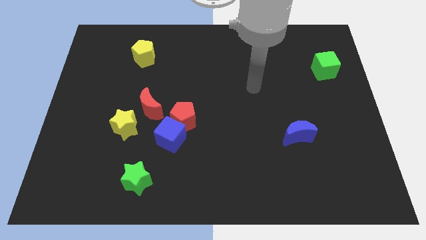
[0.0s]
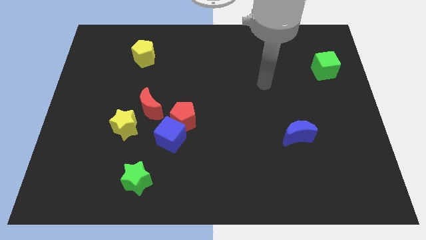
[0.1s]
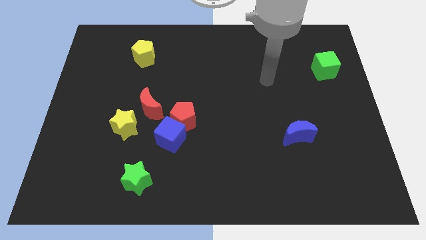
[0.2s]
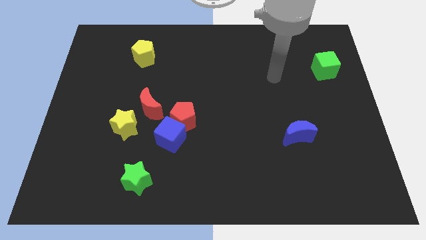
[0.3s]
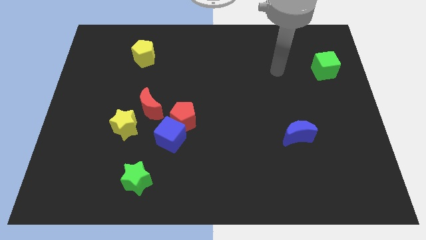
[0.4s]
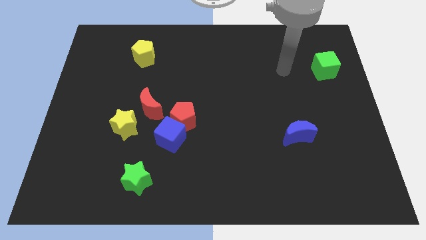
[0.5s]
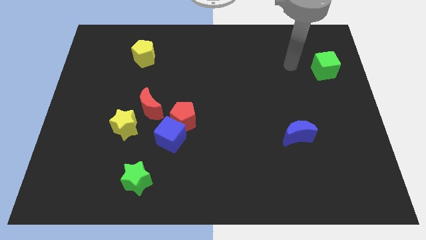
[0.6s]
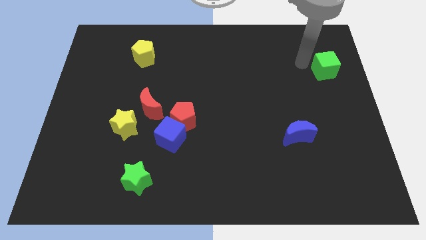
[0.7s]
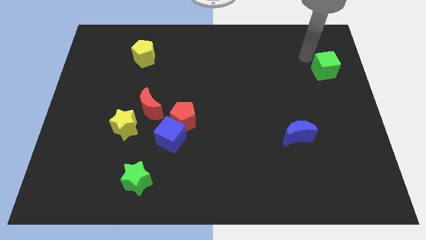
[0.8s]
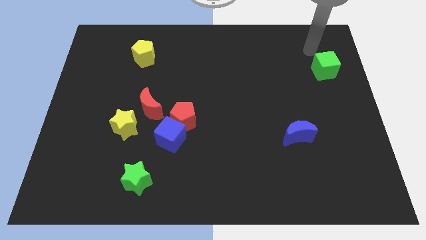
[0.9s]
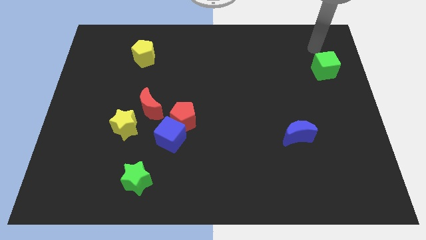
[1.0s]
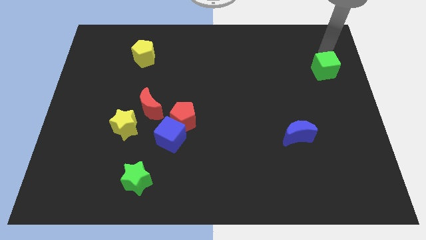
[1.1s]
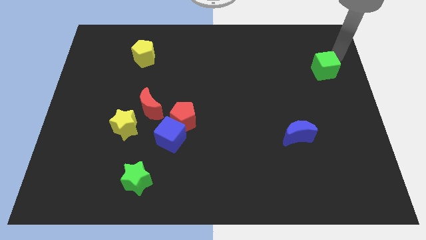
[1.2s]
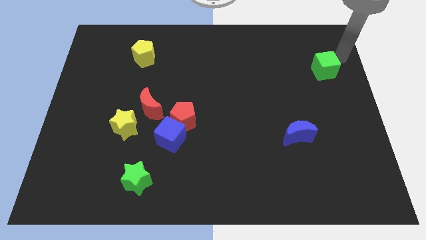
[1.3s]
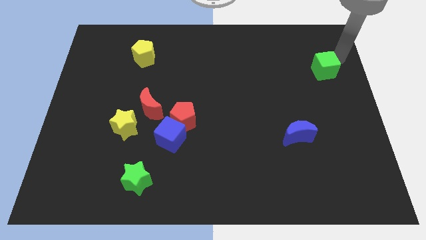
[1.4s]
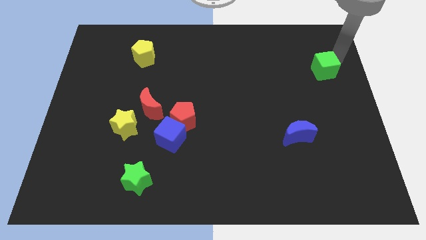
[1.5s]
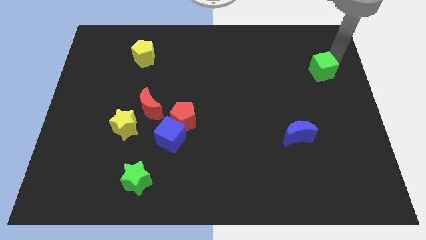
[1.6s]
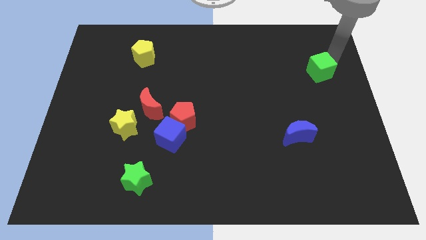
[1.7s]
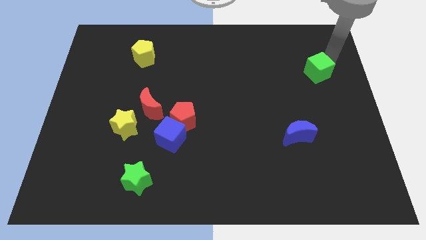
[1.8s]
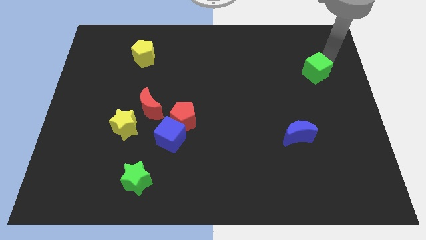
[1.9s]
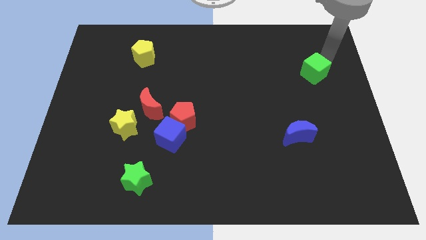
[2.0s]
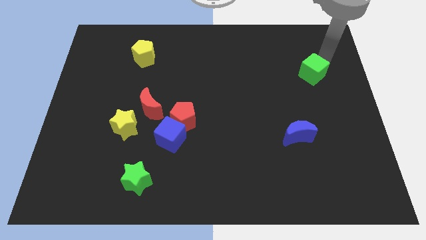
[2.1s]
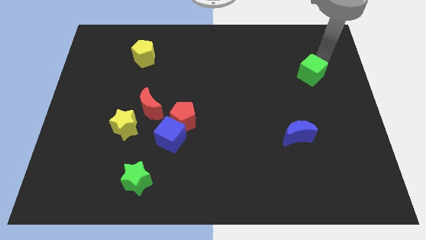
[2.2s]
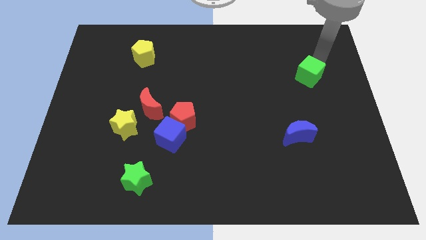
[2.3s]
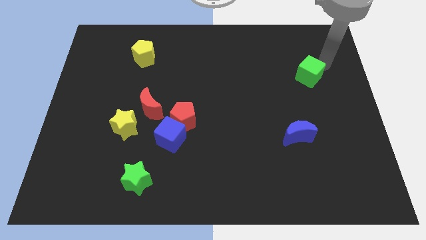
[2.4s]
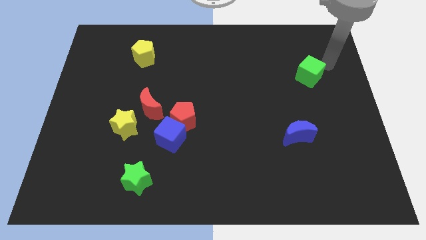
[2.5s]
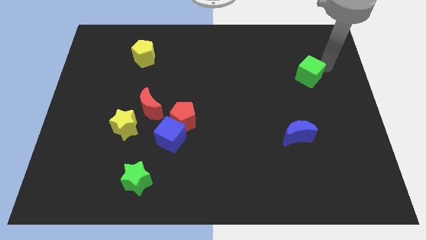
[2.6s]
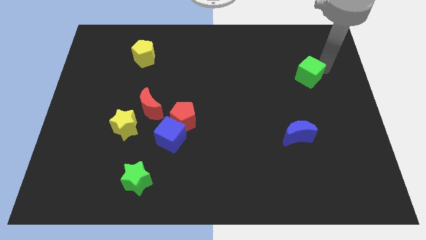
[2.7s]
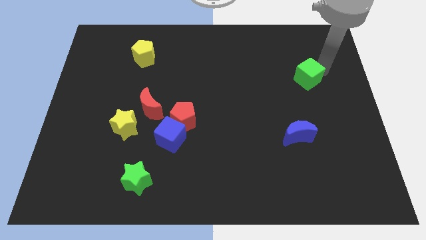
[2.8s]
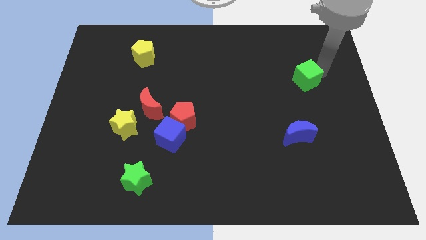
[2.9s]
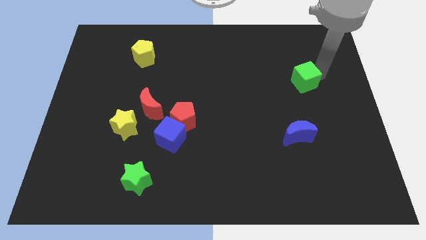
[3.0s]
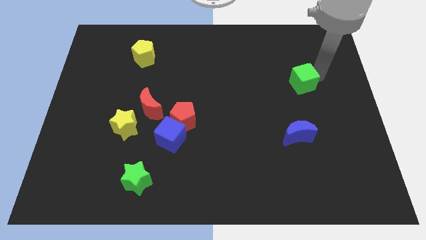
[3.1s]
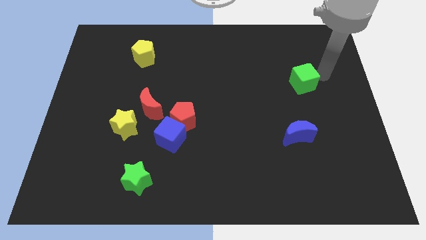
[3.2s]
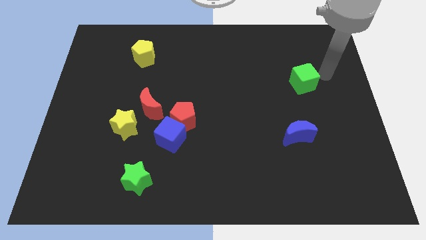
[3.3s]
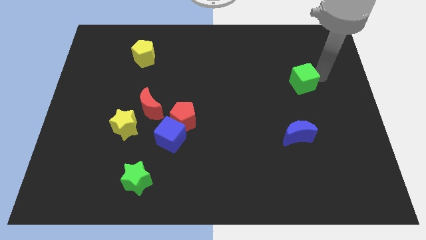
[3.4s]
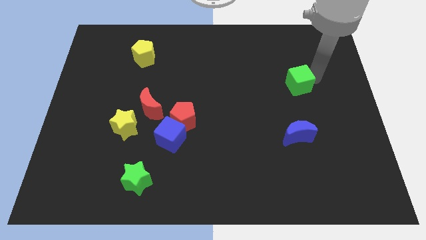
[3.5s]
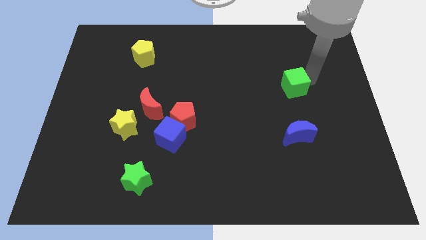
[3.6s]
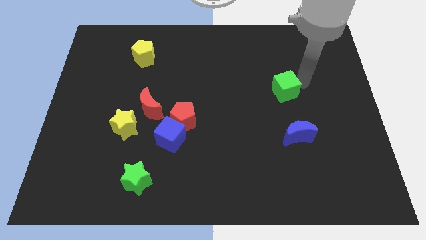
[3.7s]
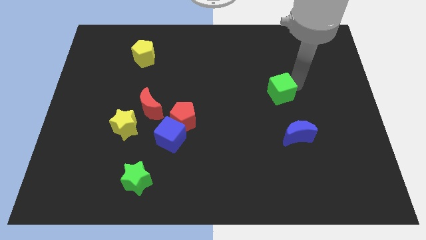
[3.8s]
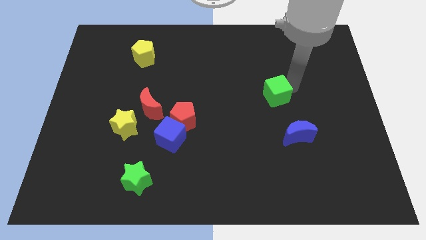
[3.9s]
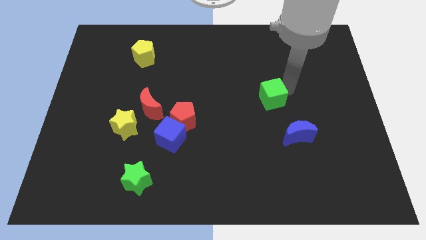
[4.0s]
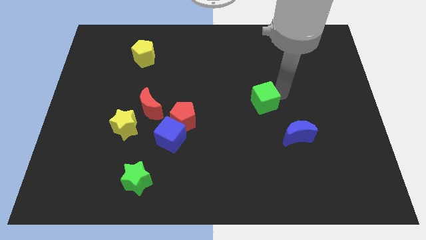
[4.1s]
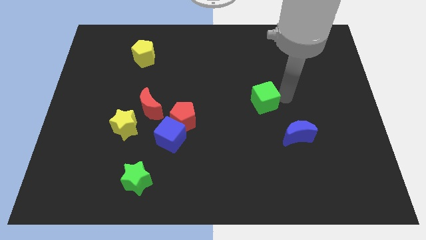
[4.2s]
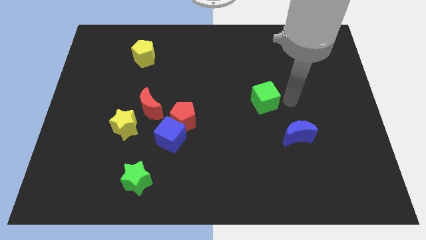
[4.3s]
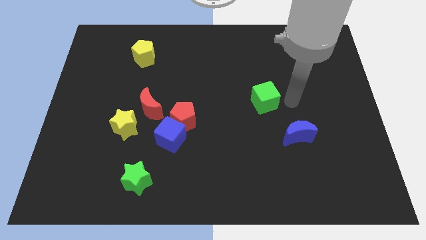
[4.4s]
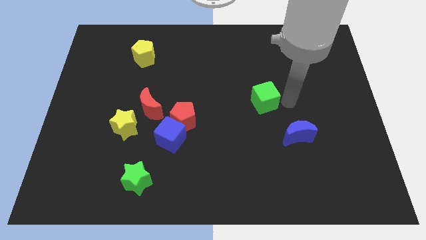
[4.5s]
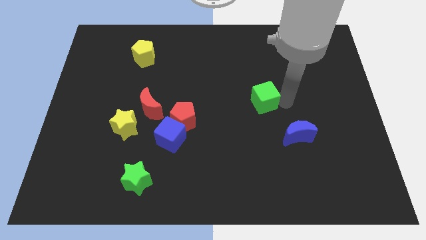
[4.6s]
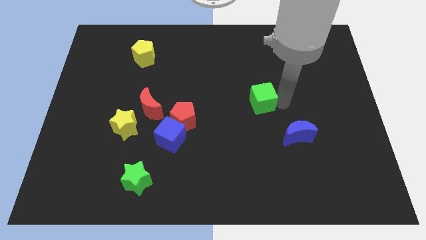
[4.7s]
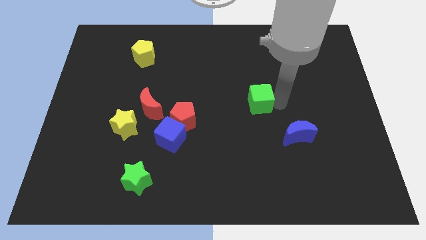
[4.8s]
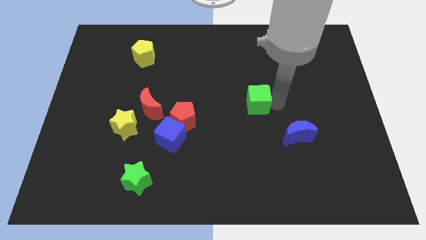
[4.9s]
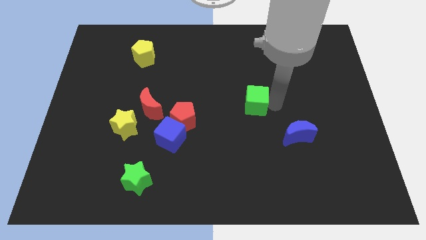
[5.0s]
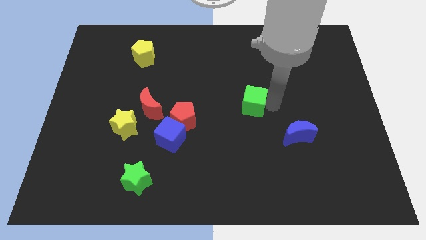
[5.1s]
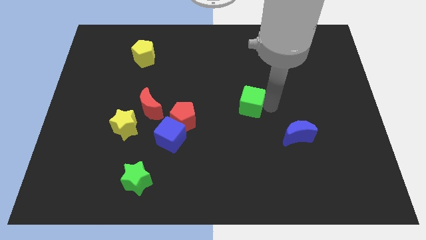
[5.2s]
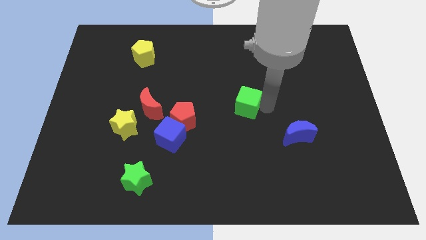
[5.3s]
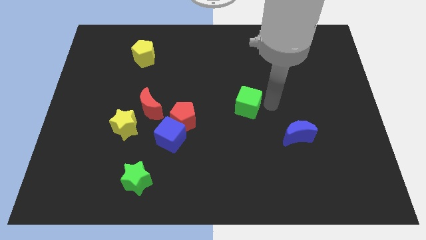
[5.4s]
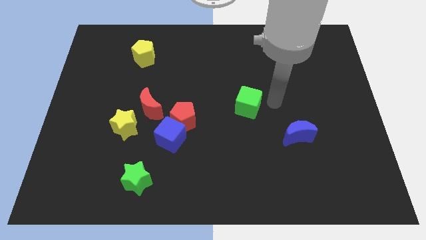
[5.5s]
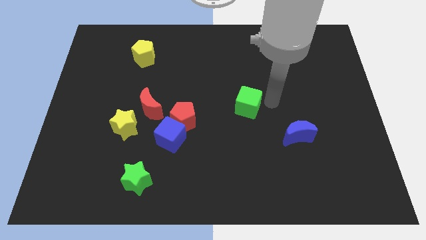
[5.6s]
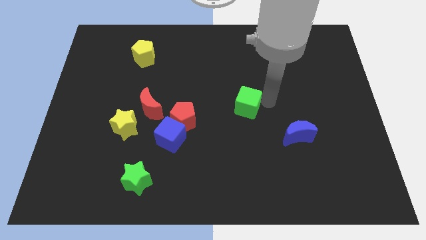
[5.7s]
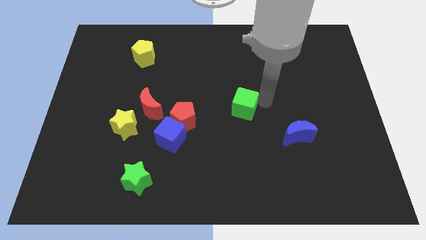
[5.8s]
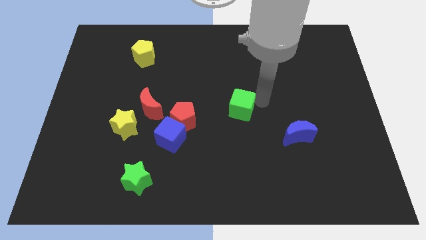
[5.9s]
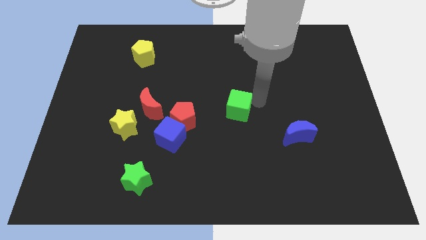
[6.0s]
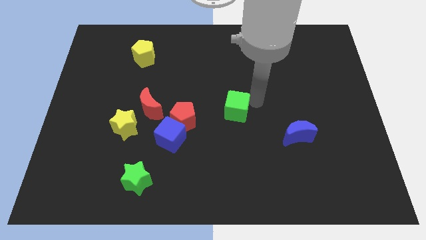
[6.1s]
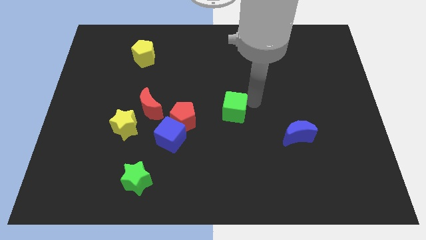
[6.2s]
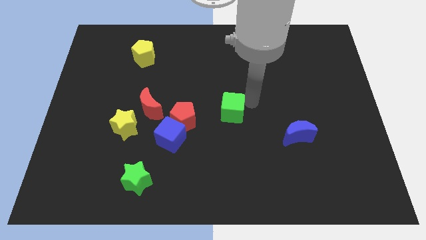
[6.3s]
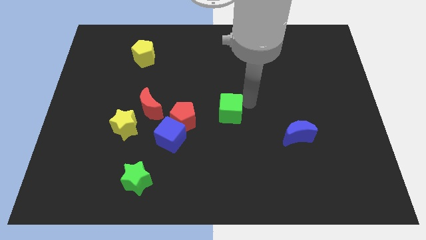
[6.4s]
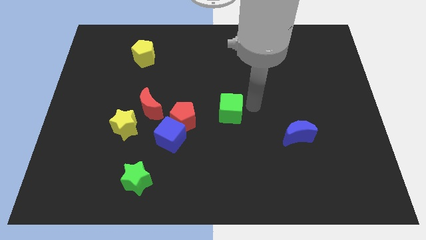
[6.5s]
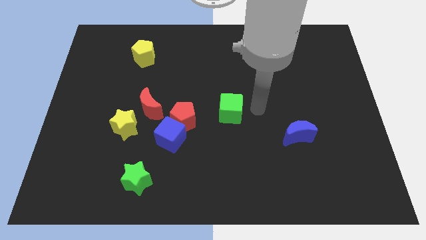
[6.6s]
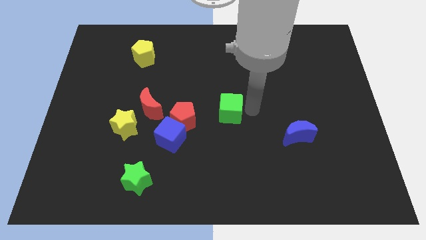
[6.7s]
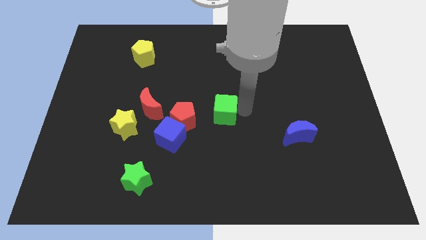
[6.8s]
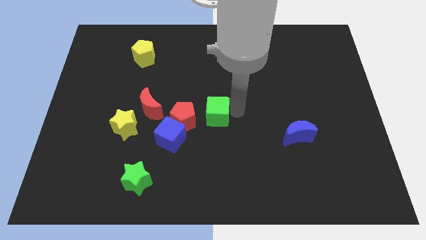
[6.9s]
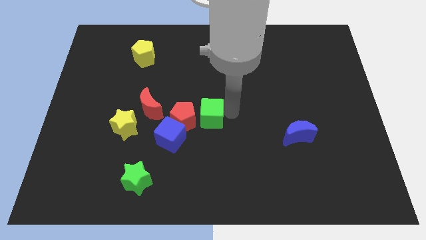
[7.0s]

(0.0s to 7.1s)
slide the green cube next to the red pentagon

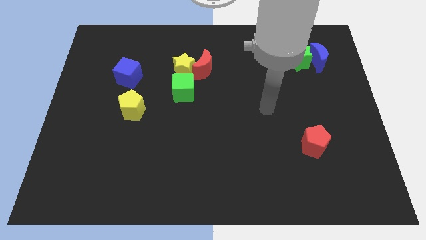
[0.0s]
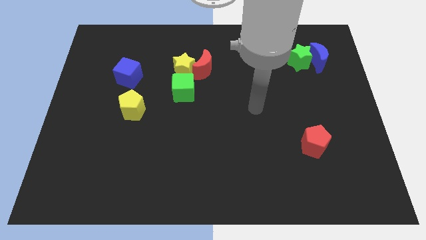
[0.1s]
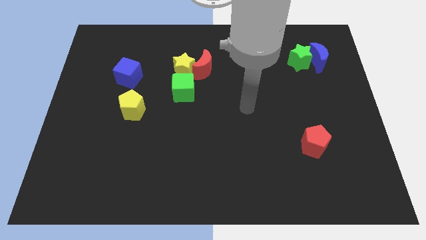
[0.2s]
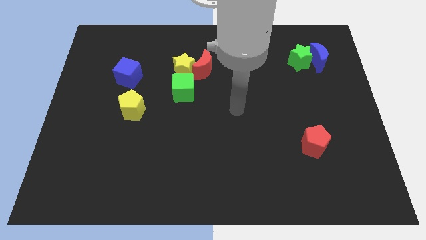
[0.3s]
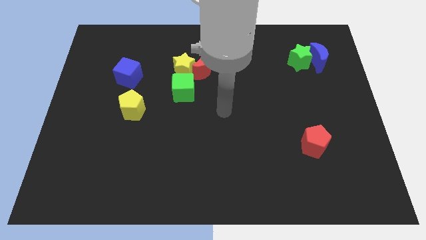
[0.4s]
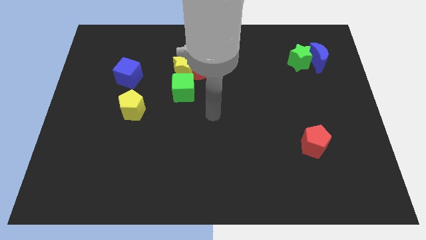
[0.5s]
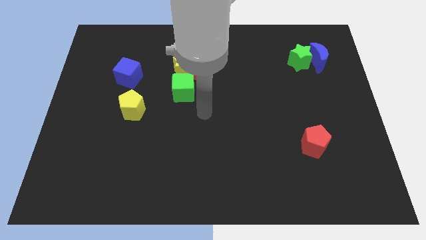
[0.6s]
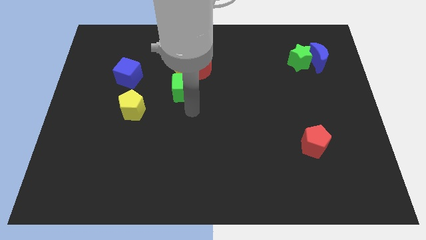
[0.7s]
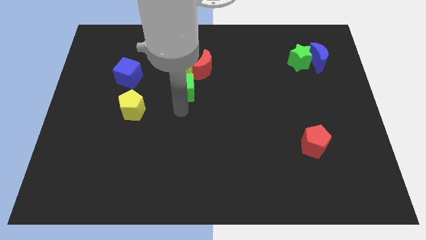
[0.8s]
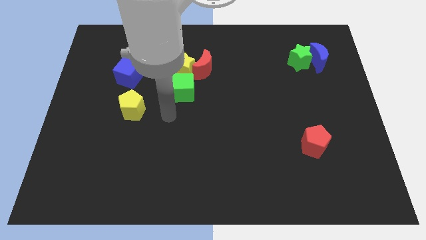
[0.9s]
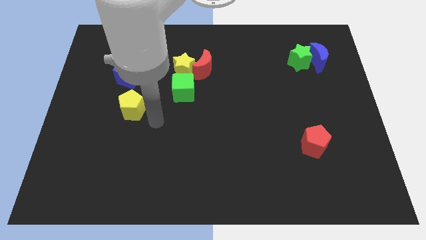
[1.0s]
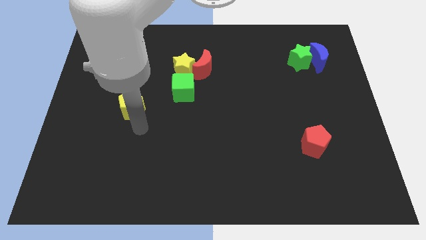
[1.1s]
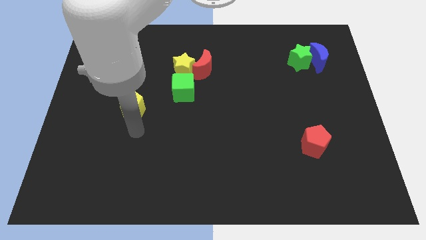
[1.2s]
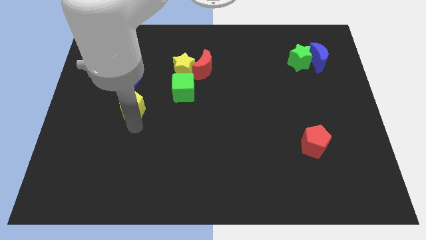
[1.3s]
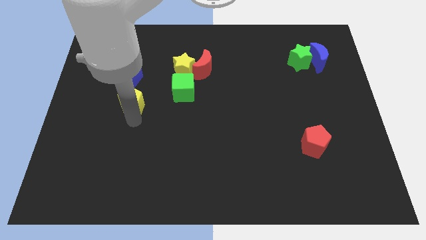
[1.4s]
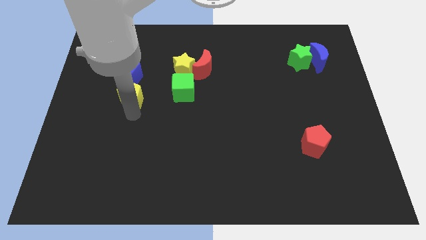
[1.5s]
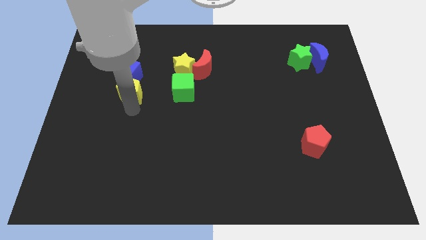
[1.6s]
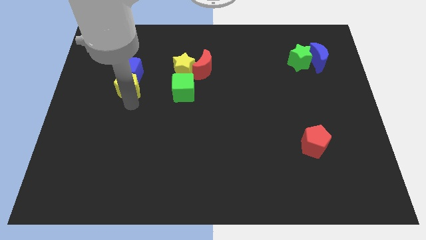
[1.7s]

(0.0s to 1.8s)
push the yellow pentagon next to the blue cube
